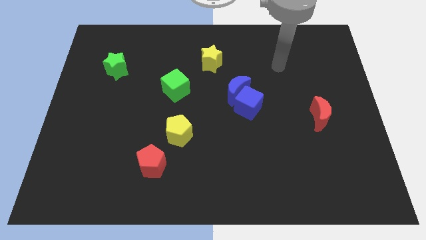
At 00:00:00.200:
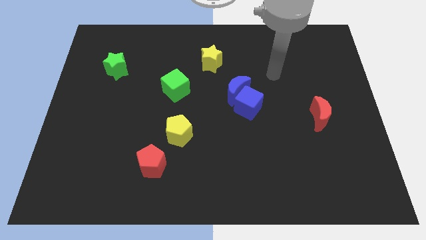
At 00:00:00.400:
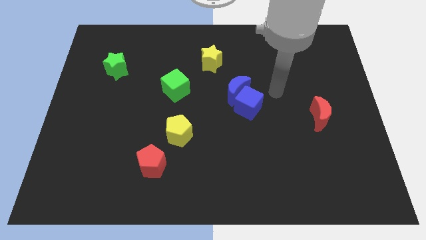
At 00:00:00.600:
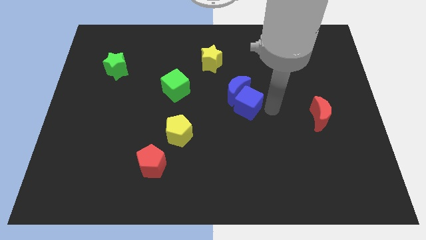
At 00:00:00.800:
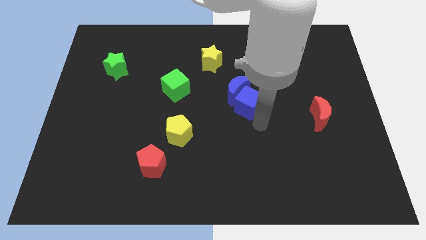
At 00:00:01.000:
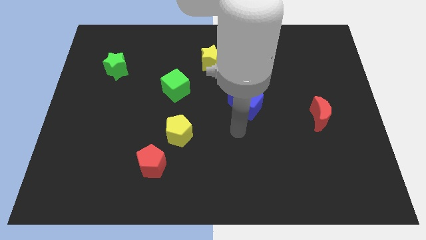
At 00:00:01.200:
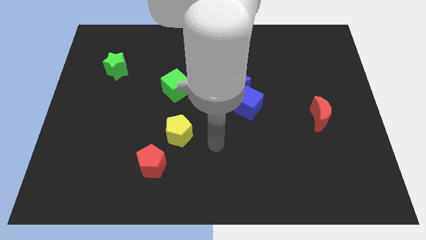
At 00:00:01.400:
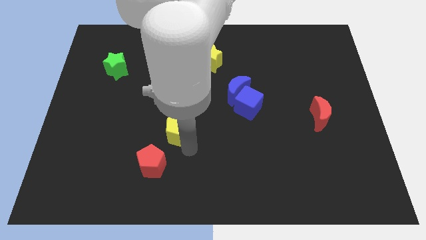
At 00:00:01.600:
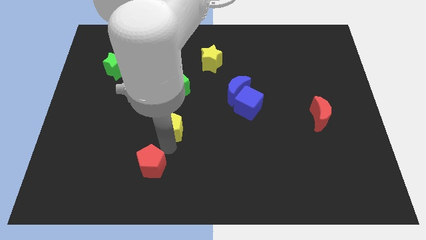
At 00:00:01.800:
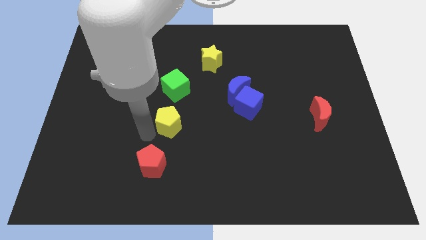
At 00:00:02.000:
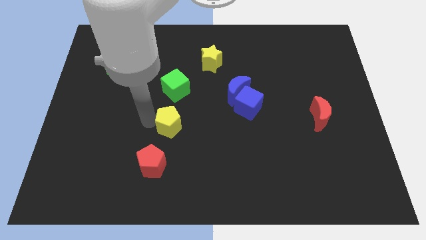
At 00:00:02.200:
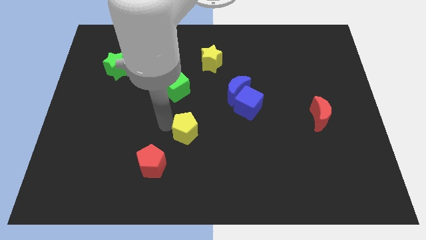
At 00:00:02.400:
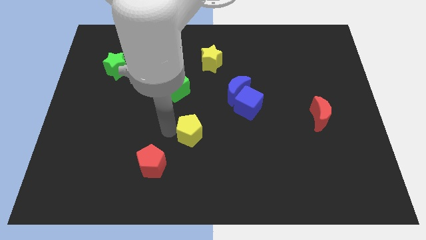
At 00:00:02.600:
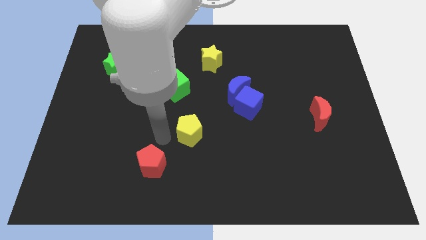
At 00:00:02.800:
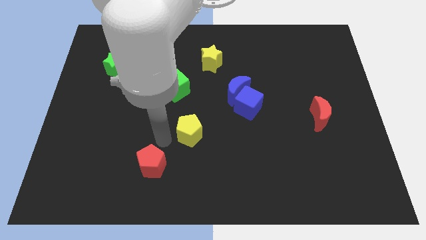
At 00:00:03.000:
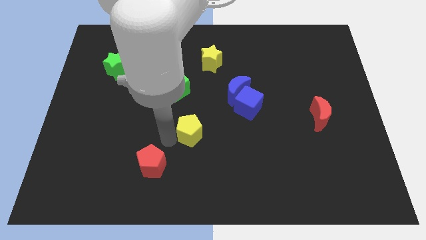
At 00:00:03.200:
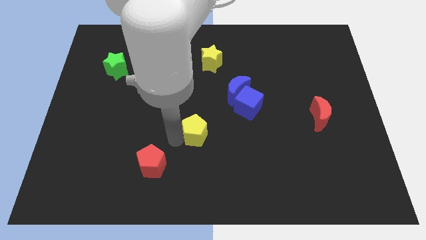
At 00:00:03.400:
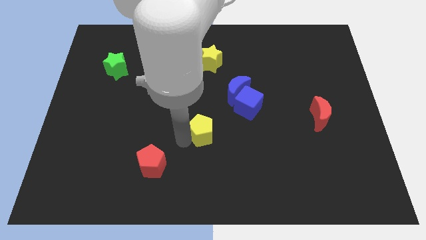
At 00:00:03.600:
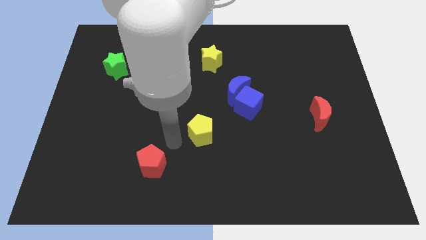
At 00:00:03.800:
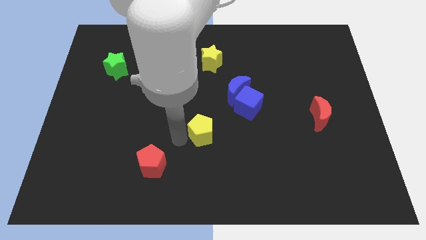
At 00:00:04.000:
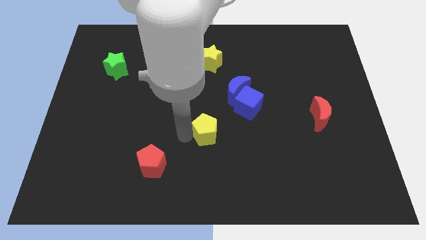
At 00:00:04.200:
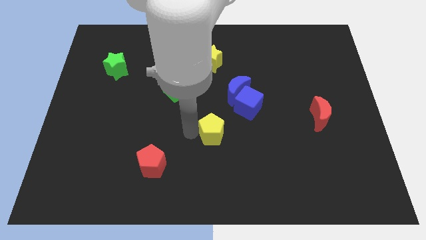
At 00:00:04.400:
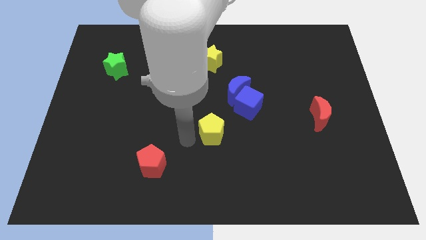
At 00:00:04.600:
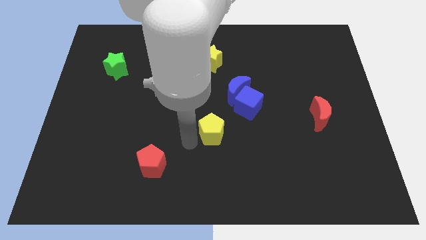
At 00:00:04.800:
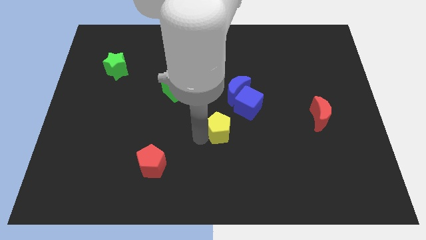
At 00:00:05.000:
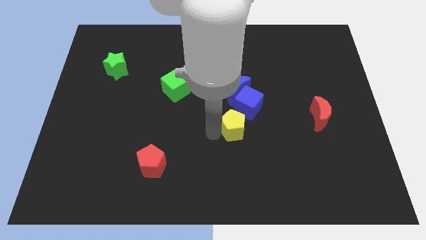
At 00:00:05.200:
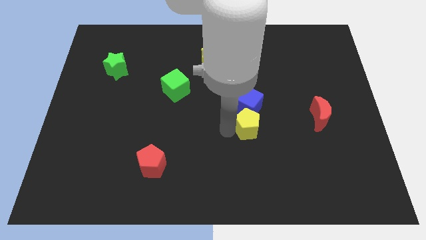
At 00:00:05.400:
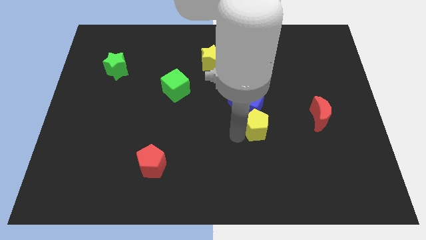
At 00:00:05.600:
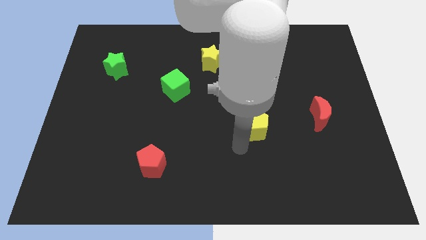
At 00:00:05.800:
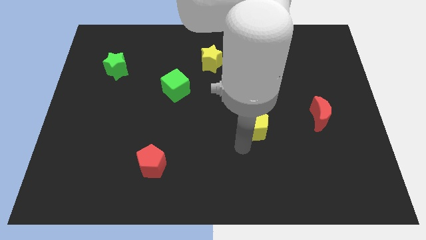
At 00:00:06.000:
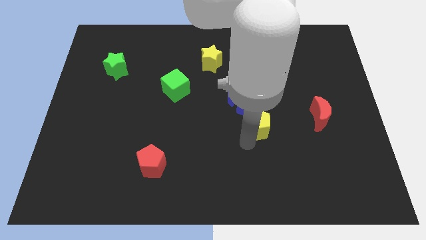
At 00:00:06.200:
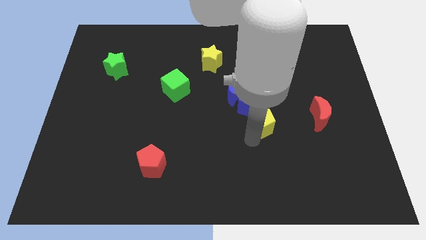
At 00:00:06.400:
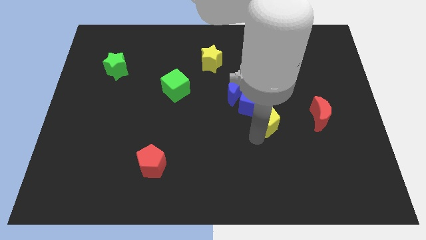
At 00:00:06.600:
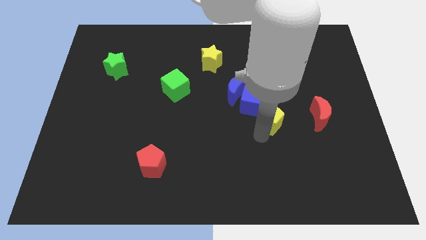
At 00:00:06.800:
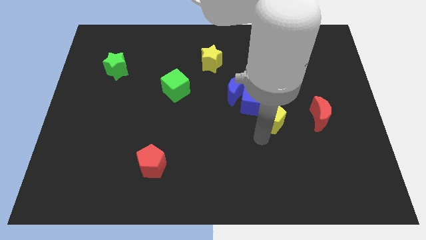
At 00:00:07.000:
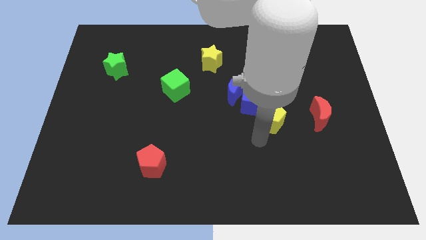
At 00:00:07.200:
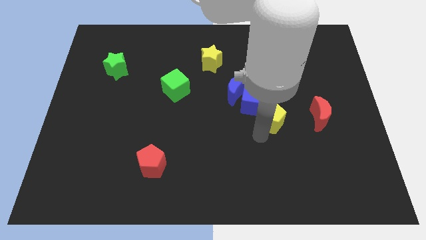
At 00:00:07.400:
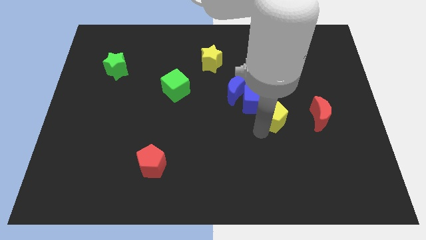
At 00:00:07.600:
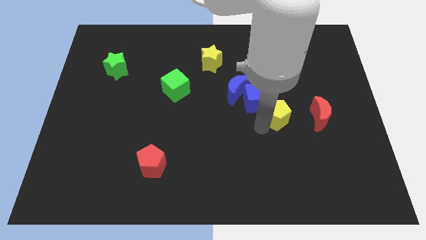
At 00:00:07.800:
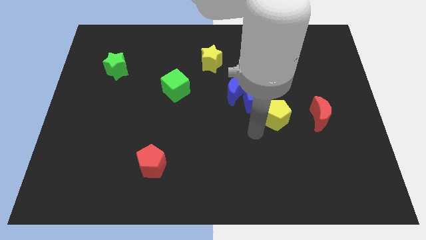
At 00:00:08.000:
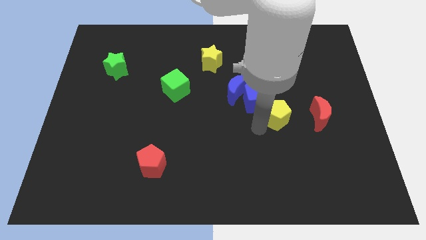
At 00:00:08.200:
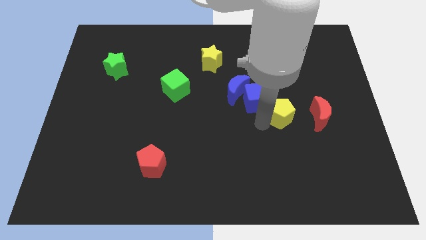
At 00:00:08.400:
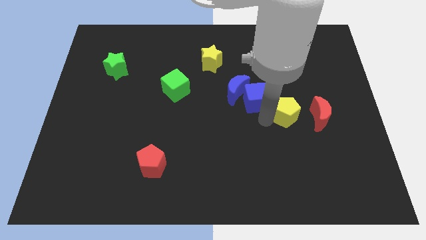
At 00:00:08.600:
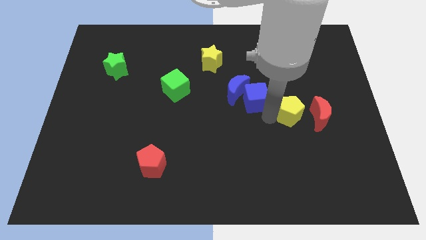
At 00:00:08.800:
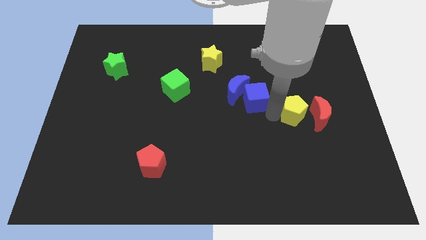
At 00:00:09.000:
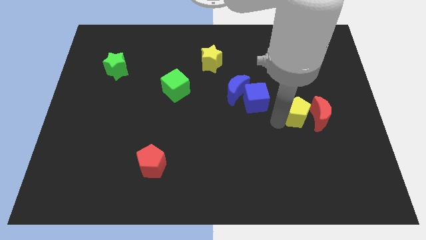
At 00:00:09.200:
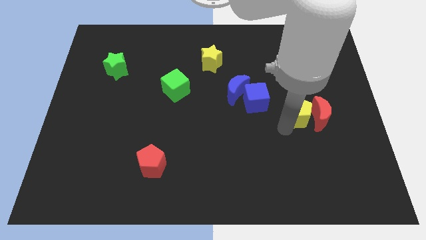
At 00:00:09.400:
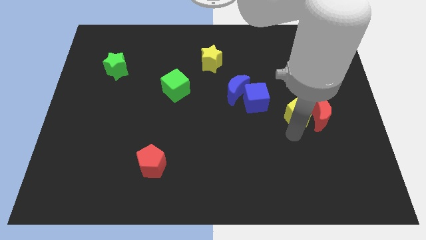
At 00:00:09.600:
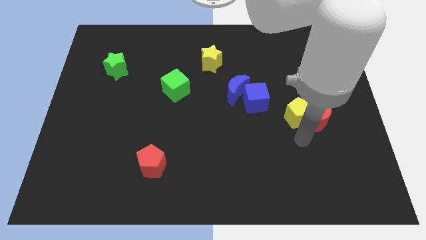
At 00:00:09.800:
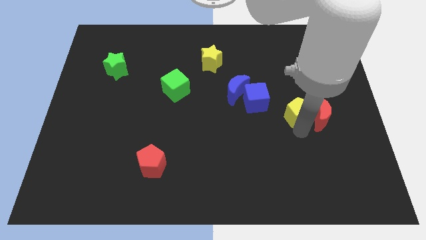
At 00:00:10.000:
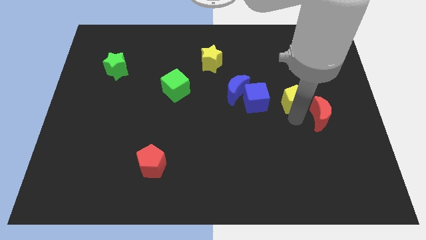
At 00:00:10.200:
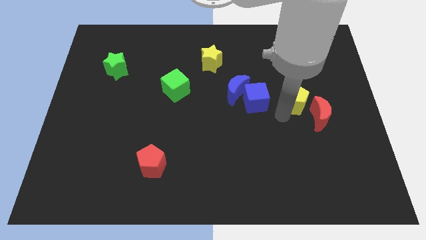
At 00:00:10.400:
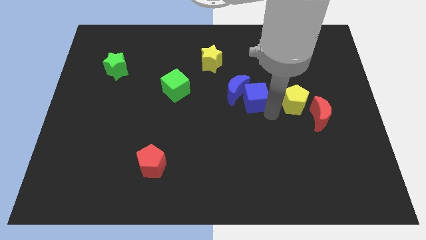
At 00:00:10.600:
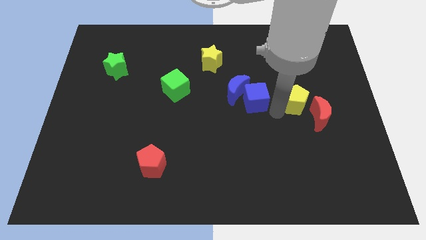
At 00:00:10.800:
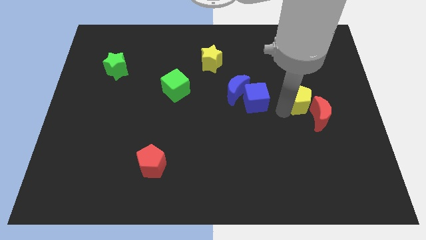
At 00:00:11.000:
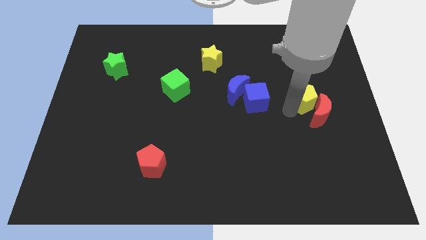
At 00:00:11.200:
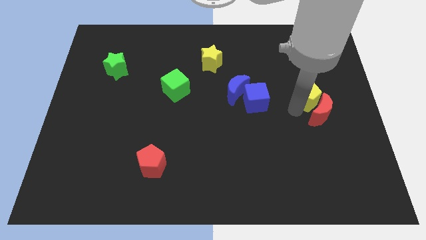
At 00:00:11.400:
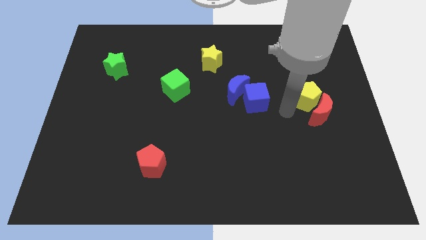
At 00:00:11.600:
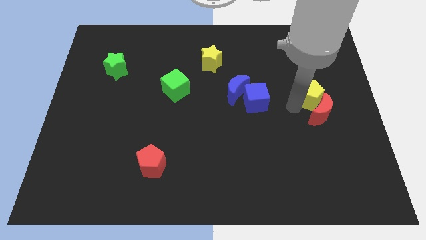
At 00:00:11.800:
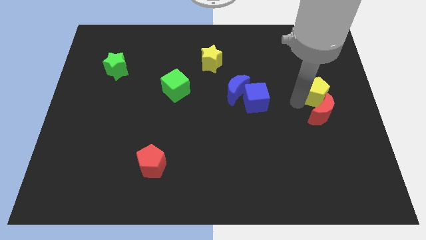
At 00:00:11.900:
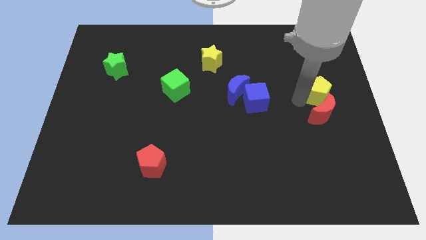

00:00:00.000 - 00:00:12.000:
put the yellow pentagon to the right side
